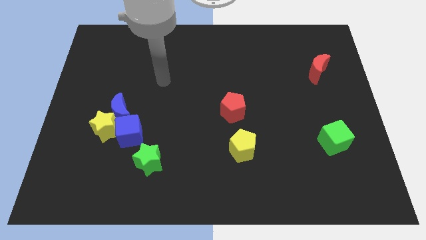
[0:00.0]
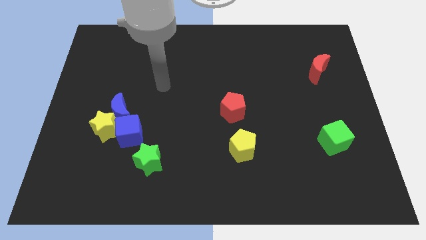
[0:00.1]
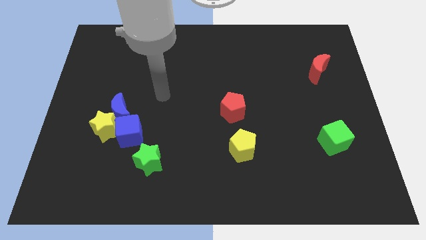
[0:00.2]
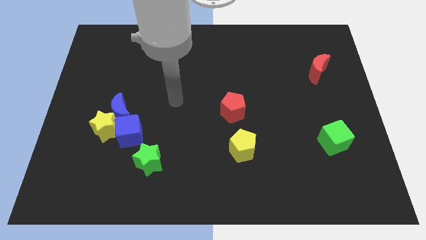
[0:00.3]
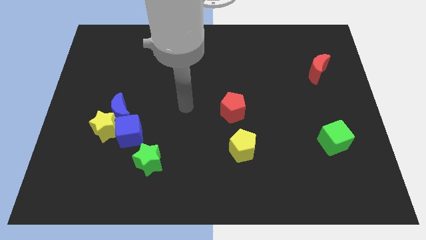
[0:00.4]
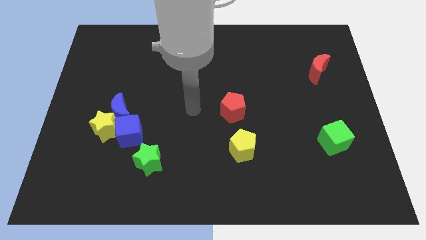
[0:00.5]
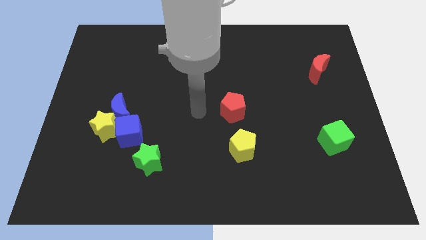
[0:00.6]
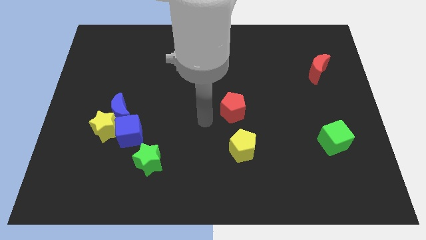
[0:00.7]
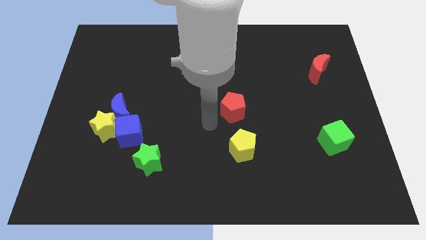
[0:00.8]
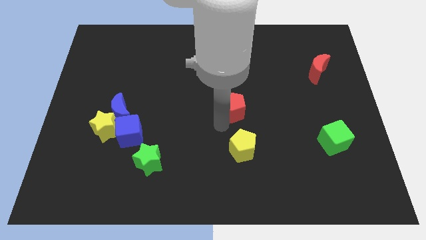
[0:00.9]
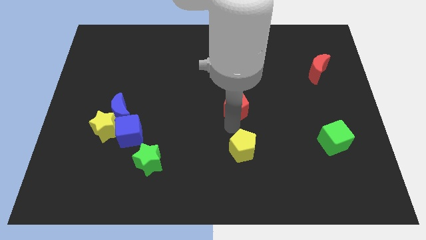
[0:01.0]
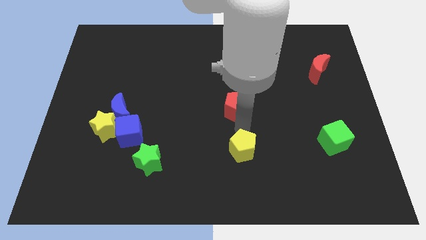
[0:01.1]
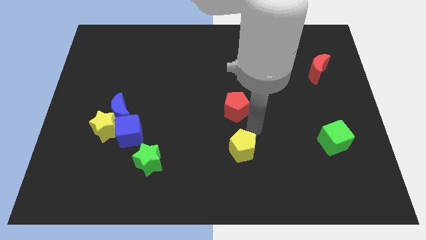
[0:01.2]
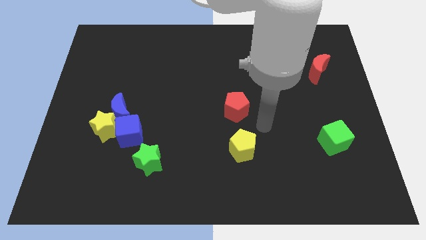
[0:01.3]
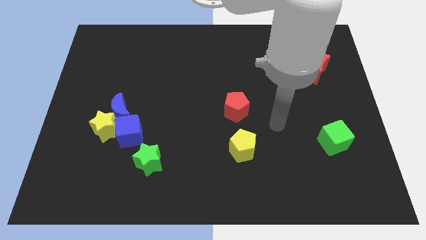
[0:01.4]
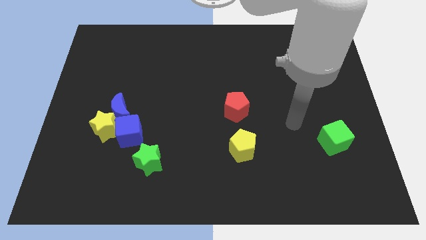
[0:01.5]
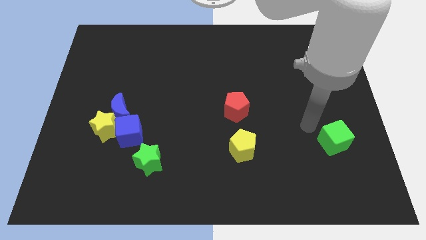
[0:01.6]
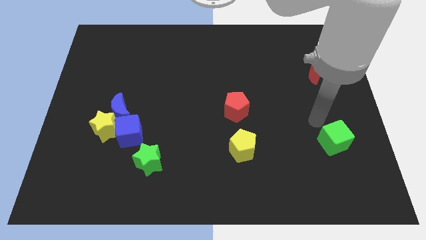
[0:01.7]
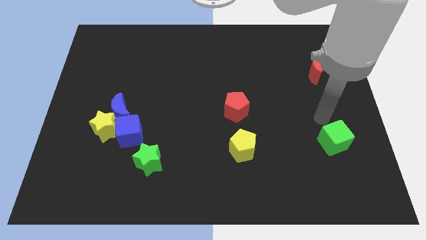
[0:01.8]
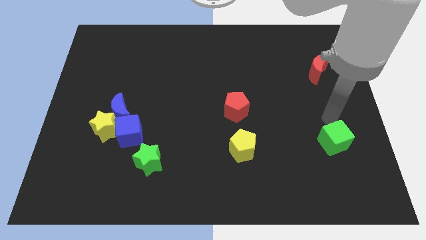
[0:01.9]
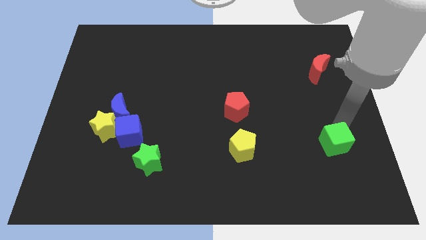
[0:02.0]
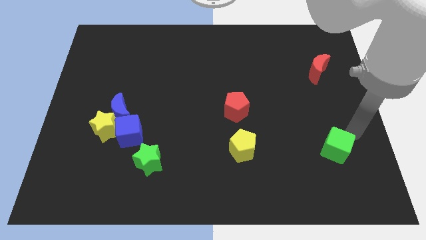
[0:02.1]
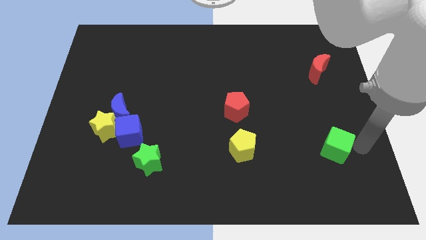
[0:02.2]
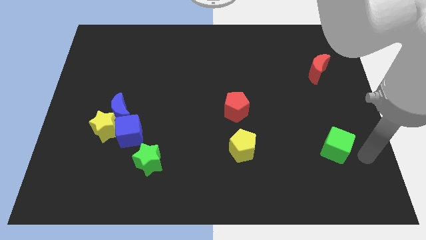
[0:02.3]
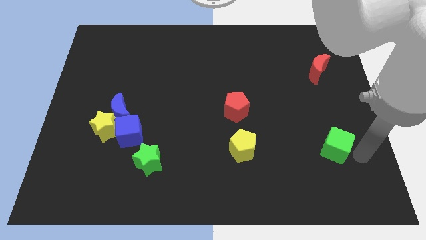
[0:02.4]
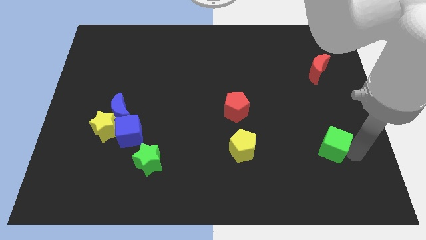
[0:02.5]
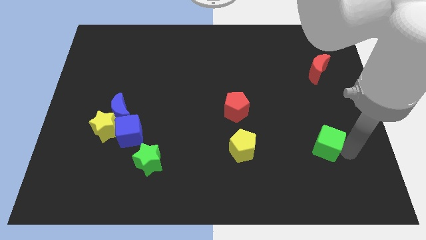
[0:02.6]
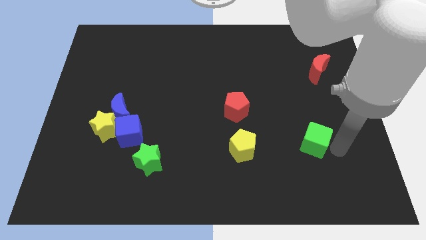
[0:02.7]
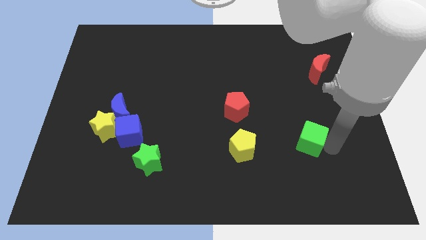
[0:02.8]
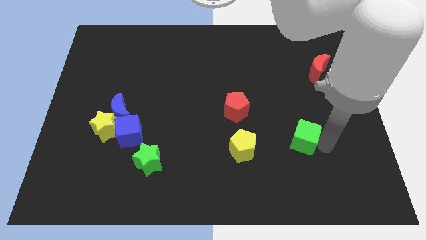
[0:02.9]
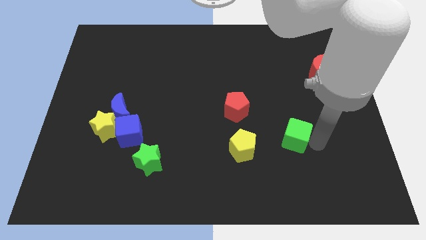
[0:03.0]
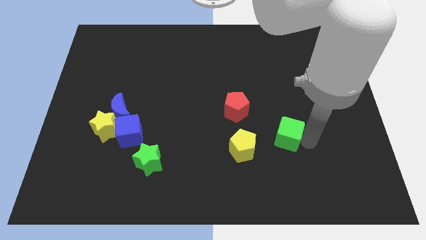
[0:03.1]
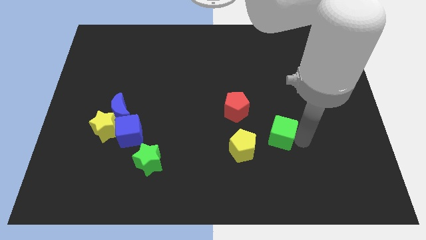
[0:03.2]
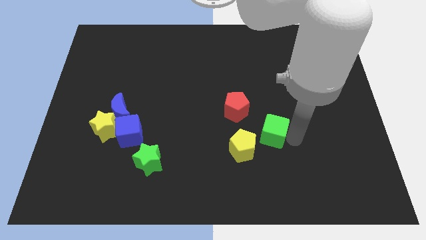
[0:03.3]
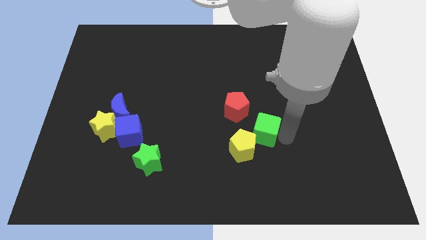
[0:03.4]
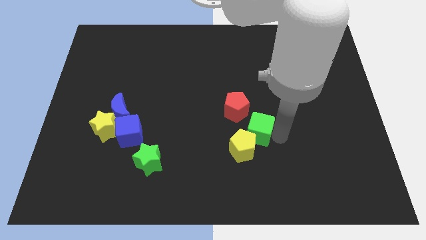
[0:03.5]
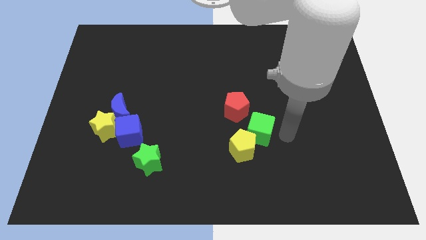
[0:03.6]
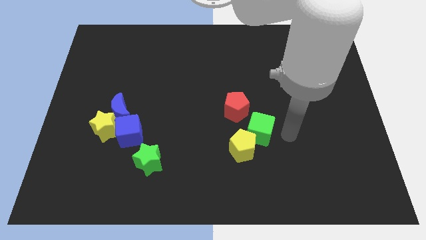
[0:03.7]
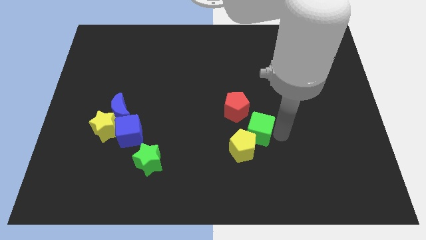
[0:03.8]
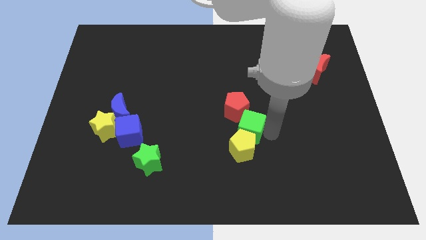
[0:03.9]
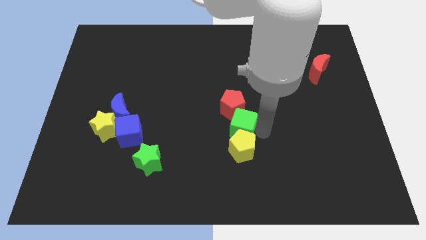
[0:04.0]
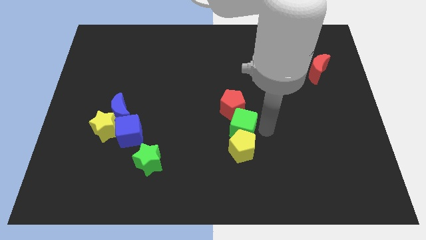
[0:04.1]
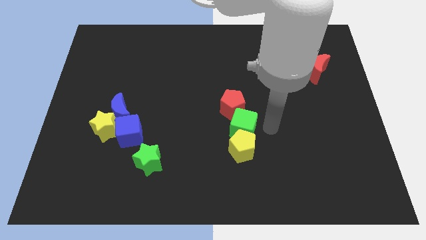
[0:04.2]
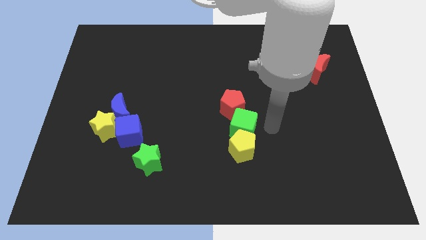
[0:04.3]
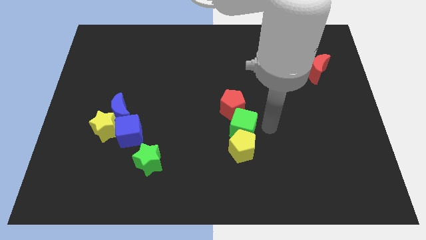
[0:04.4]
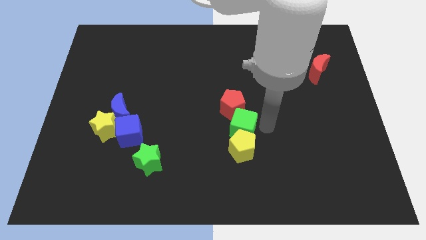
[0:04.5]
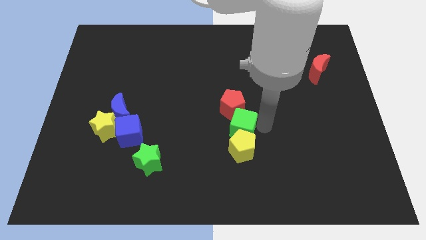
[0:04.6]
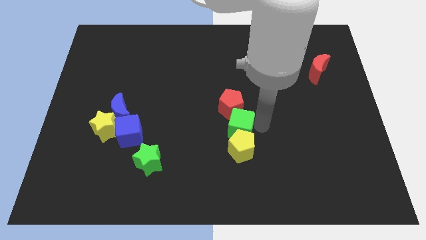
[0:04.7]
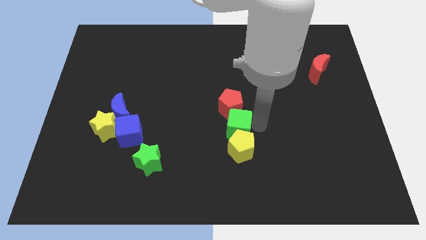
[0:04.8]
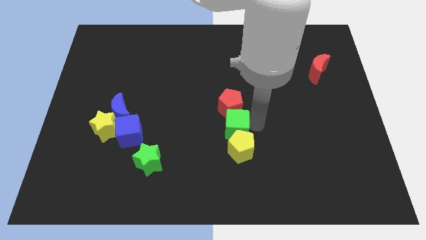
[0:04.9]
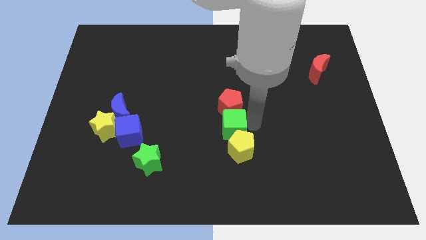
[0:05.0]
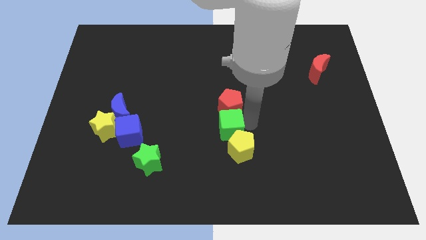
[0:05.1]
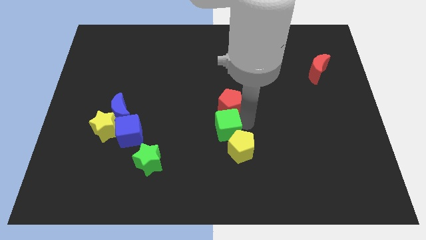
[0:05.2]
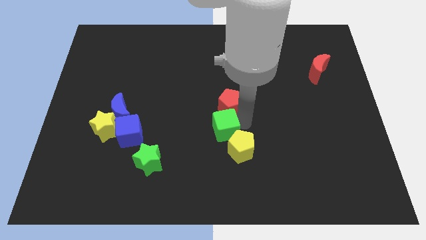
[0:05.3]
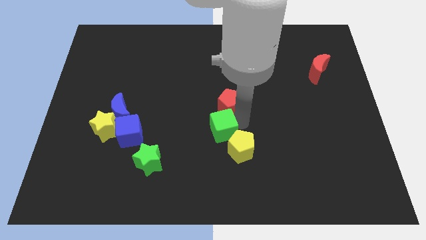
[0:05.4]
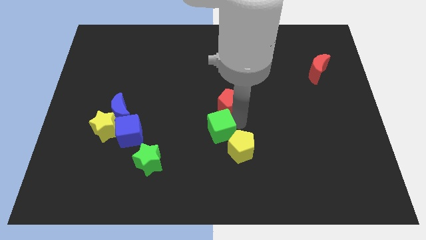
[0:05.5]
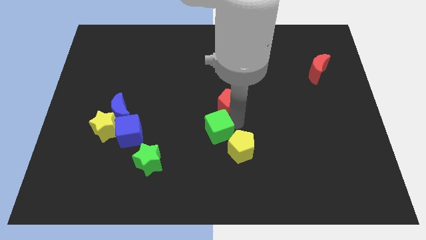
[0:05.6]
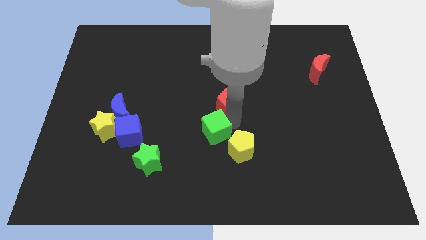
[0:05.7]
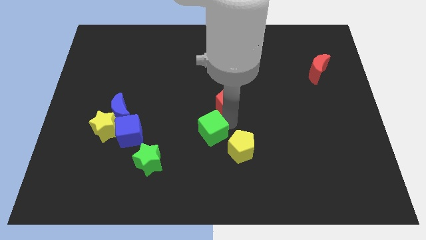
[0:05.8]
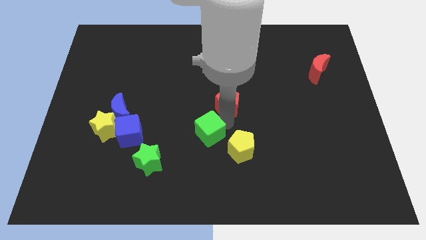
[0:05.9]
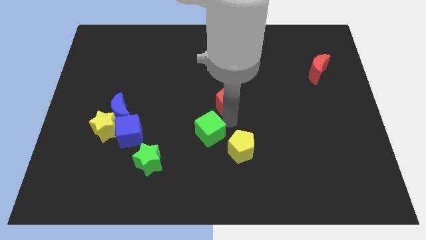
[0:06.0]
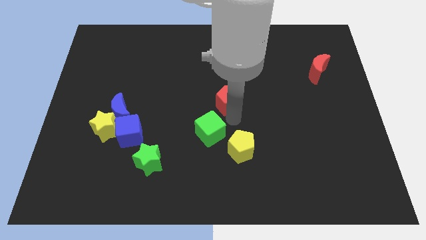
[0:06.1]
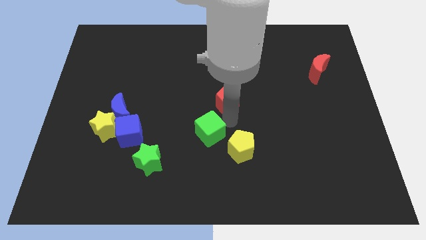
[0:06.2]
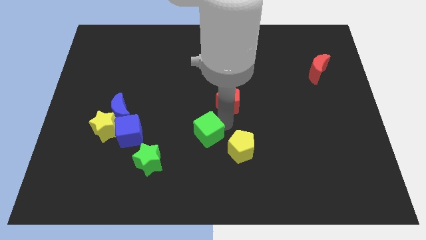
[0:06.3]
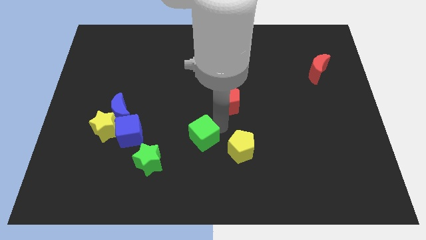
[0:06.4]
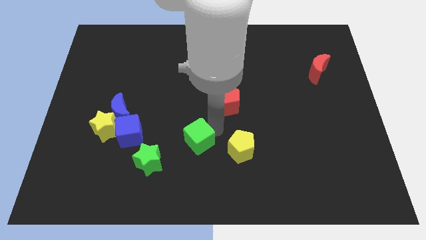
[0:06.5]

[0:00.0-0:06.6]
put the green cube diagonally up and to the right of the green star
